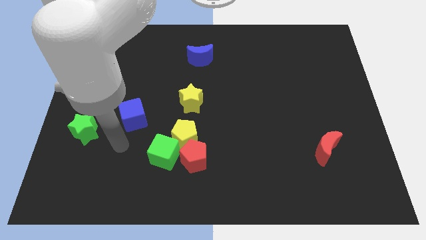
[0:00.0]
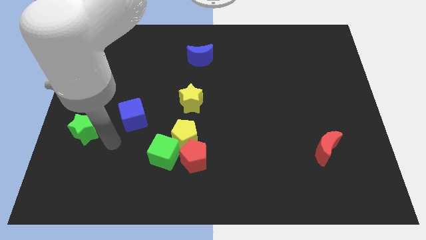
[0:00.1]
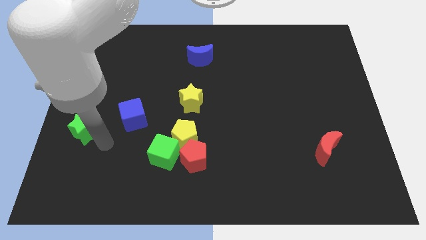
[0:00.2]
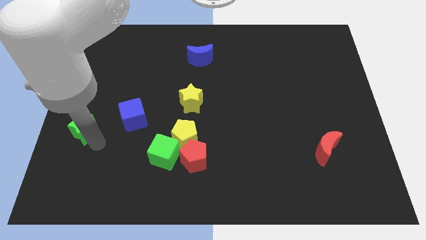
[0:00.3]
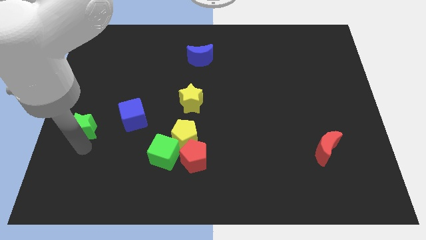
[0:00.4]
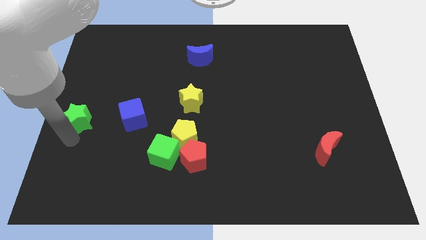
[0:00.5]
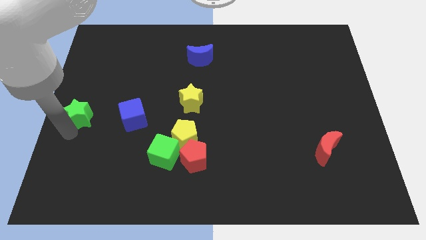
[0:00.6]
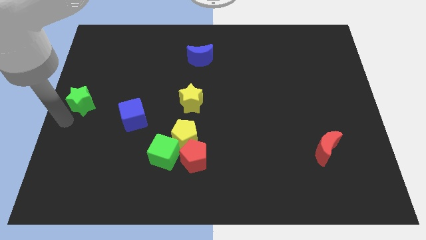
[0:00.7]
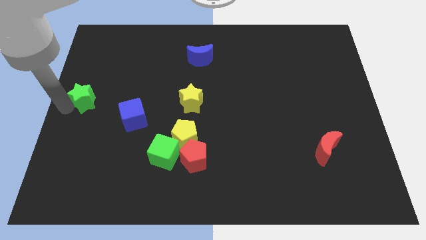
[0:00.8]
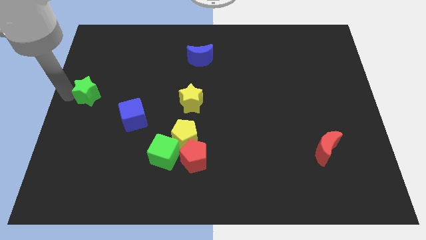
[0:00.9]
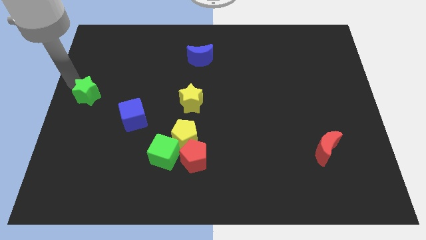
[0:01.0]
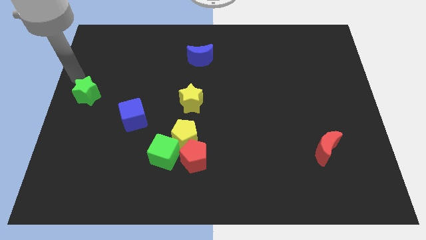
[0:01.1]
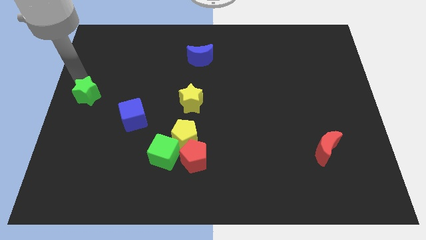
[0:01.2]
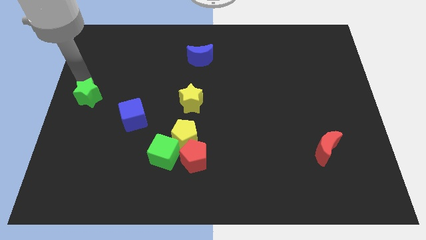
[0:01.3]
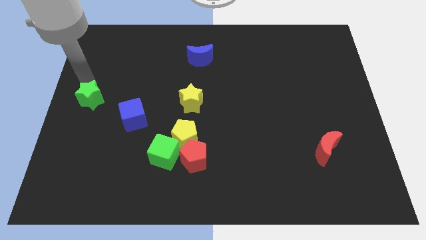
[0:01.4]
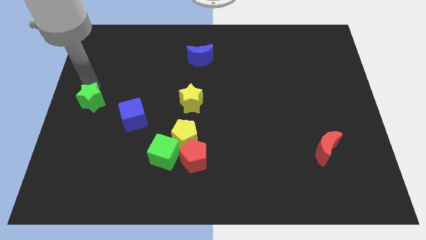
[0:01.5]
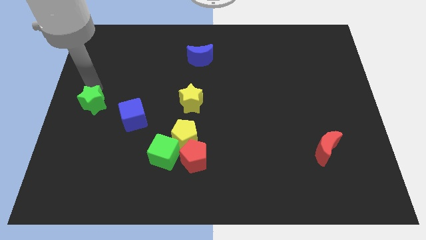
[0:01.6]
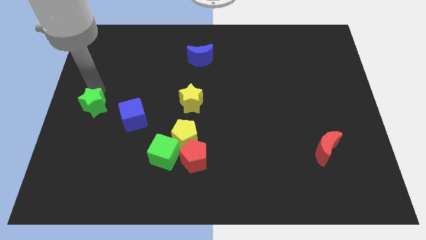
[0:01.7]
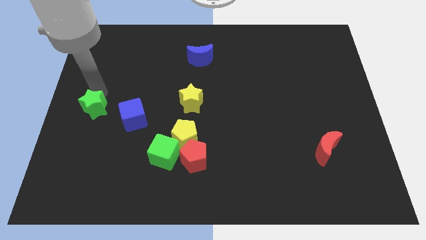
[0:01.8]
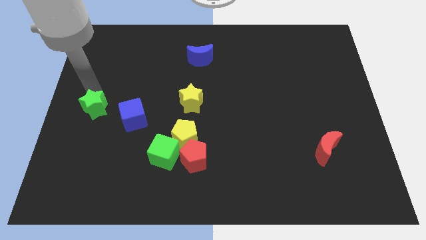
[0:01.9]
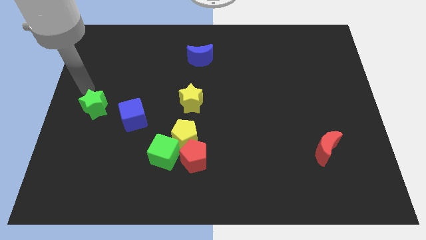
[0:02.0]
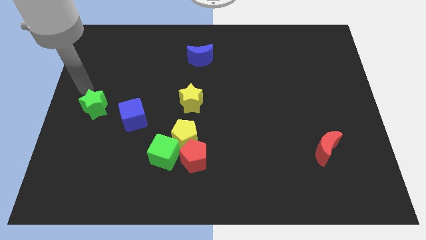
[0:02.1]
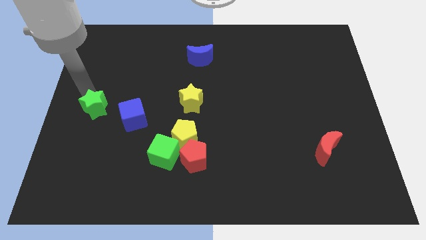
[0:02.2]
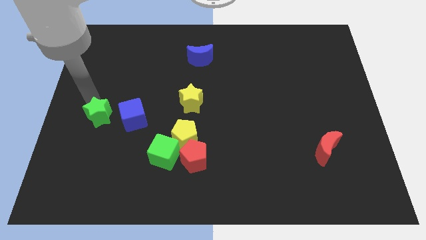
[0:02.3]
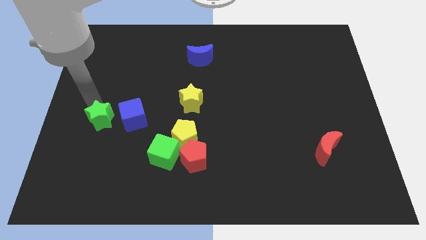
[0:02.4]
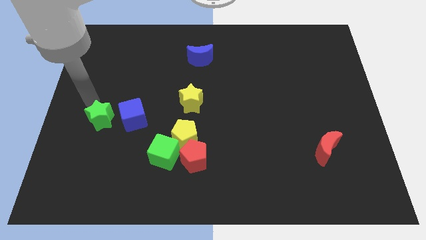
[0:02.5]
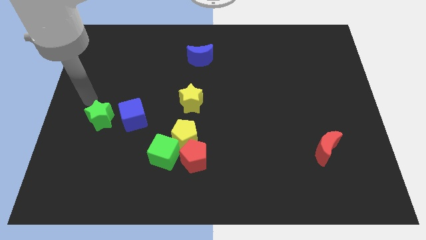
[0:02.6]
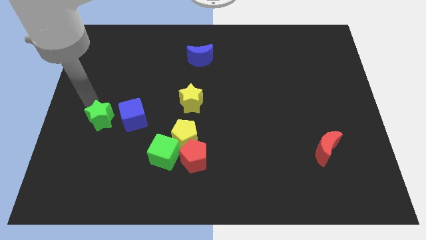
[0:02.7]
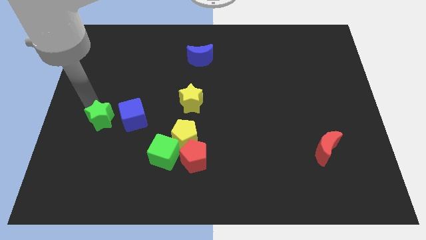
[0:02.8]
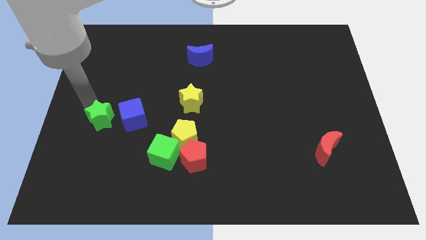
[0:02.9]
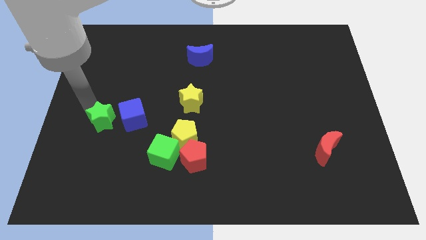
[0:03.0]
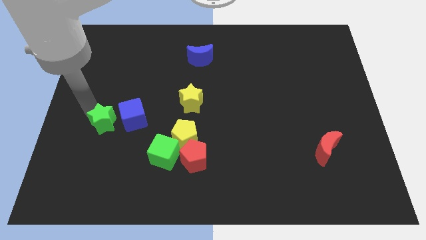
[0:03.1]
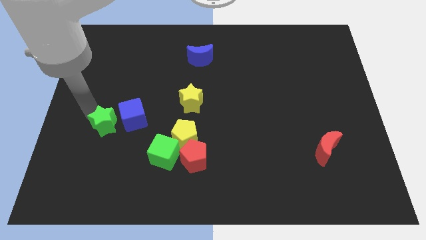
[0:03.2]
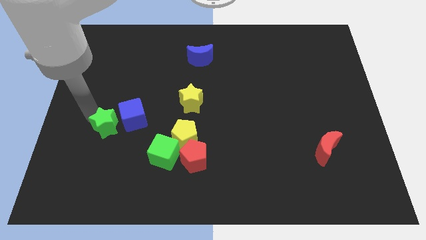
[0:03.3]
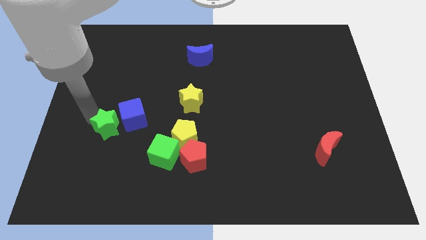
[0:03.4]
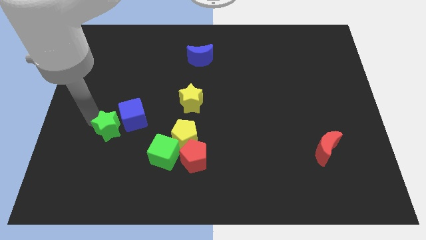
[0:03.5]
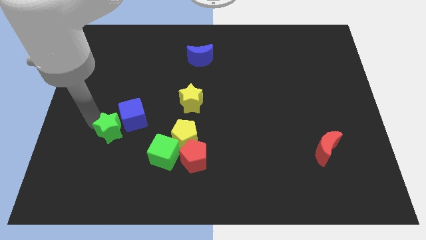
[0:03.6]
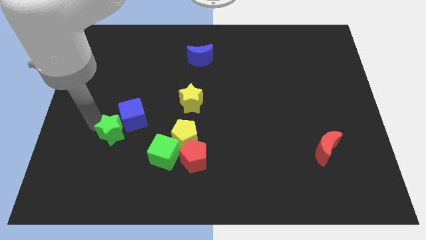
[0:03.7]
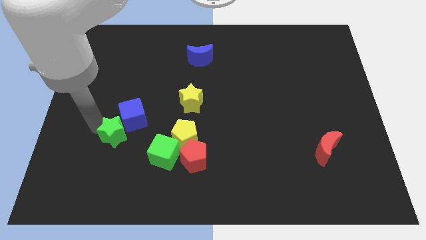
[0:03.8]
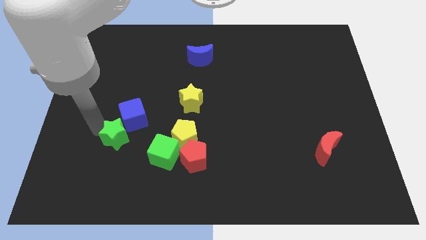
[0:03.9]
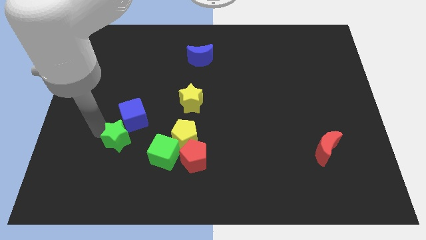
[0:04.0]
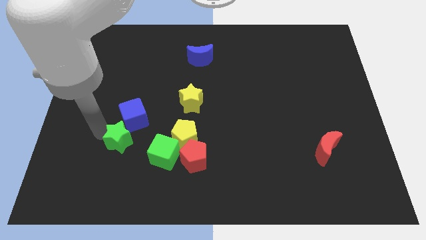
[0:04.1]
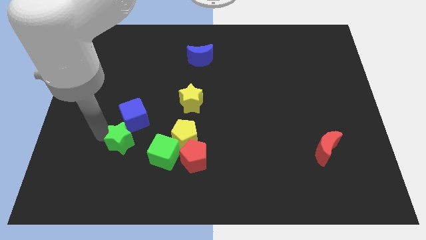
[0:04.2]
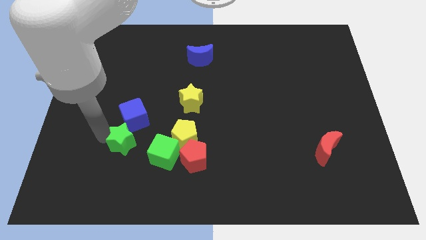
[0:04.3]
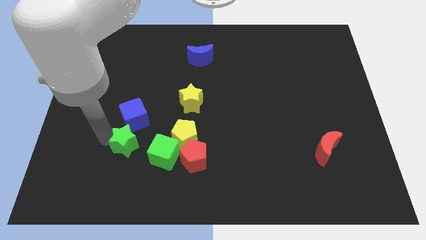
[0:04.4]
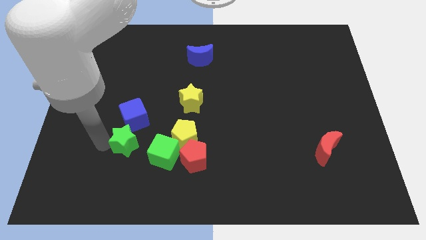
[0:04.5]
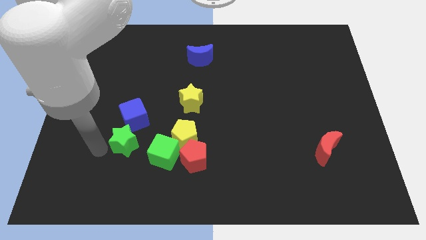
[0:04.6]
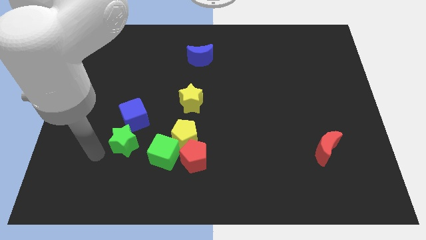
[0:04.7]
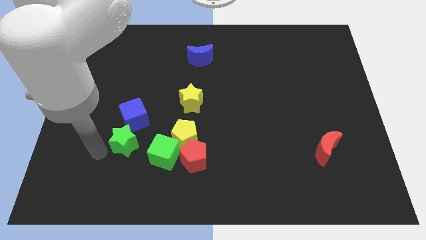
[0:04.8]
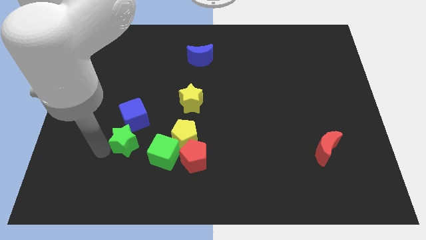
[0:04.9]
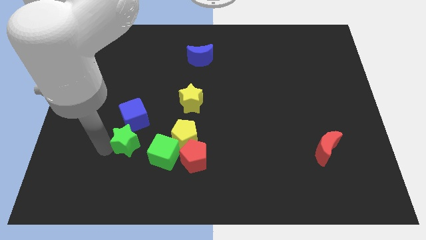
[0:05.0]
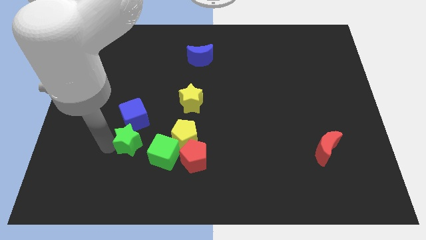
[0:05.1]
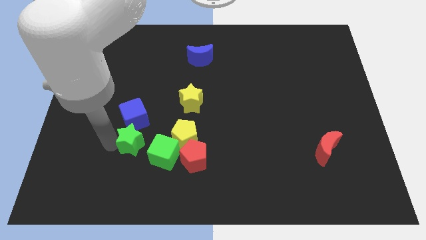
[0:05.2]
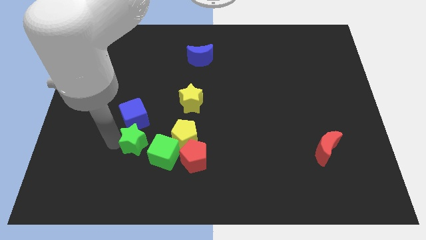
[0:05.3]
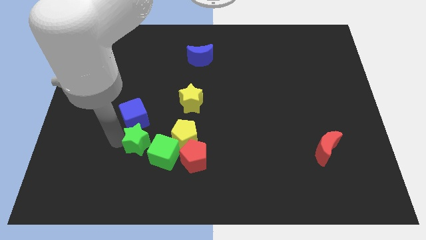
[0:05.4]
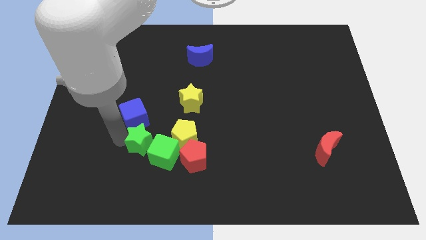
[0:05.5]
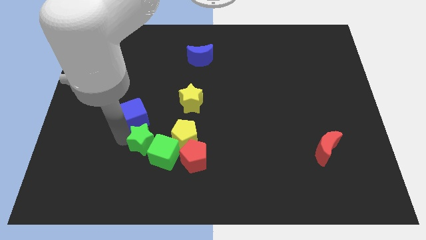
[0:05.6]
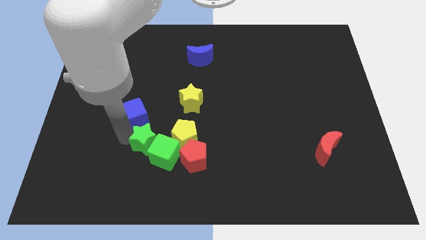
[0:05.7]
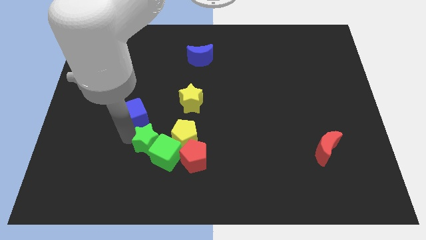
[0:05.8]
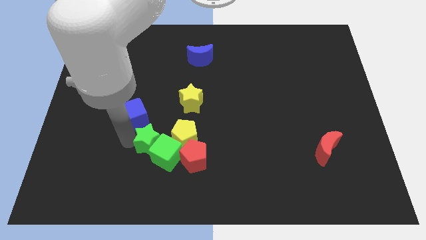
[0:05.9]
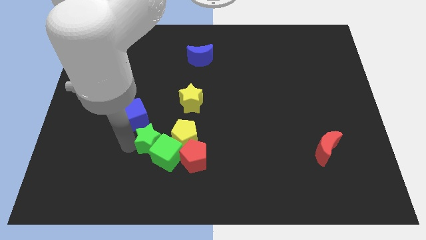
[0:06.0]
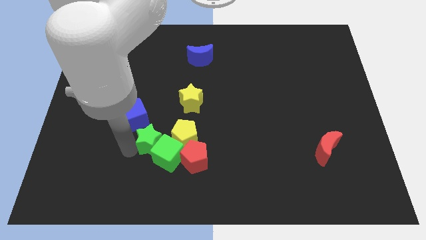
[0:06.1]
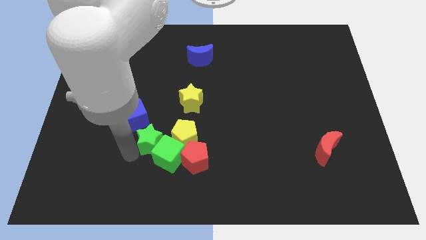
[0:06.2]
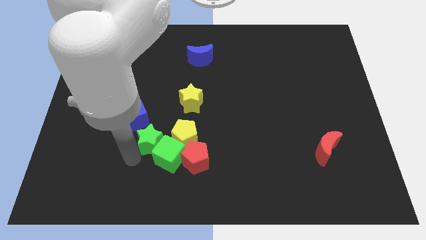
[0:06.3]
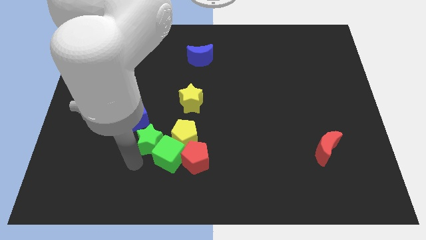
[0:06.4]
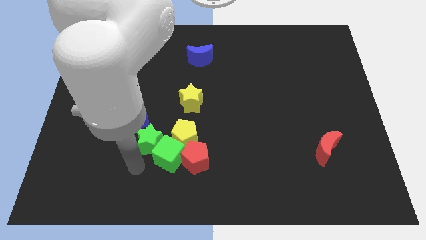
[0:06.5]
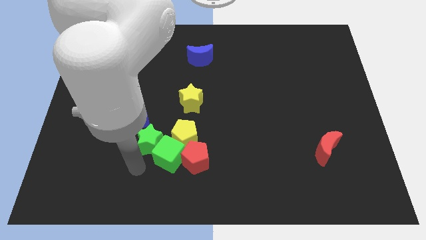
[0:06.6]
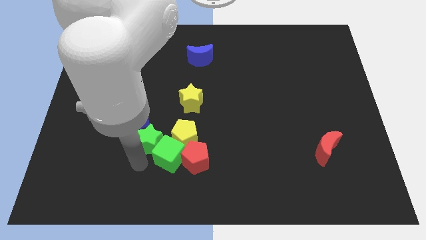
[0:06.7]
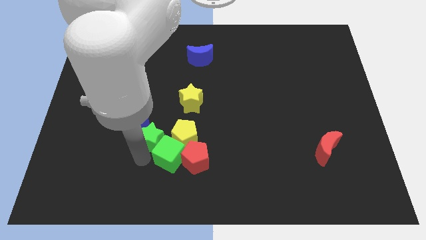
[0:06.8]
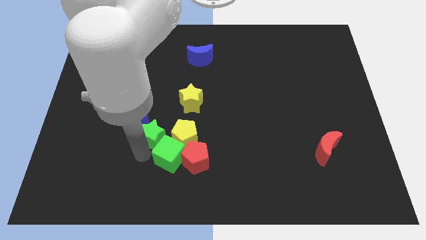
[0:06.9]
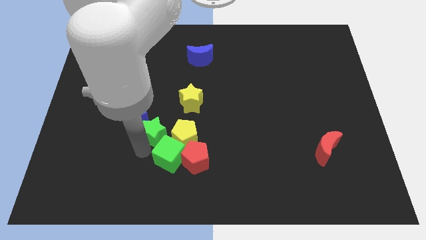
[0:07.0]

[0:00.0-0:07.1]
put the green star to the right side of the blue cube

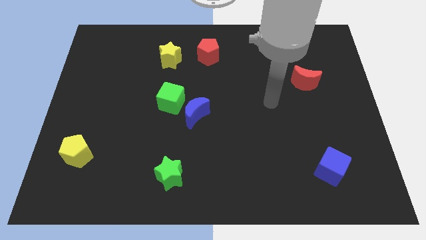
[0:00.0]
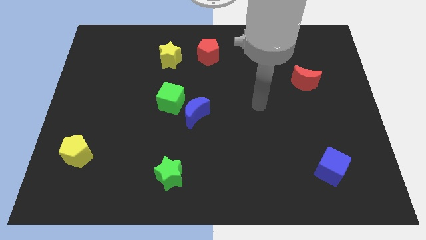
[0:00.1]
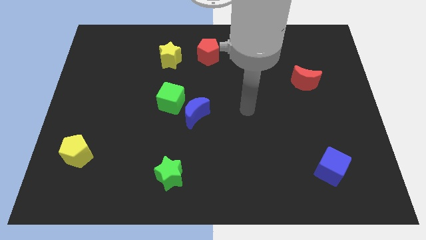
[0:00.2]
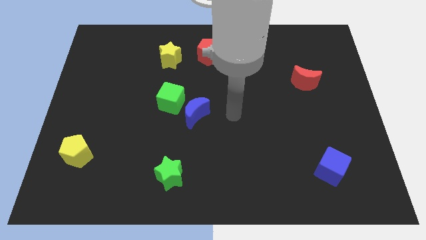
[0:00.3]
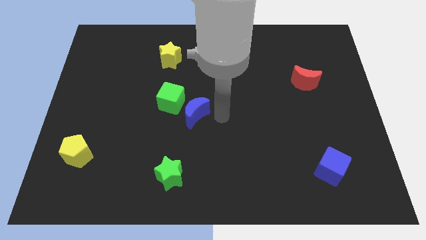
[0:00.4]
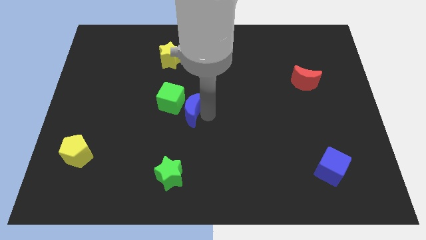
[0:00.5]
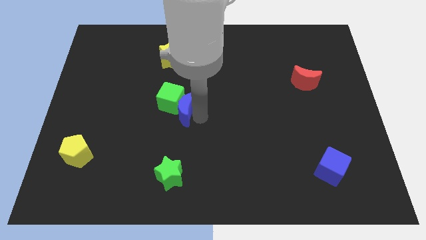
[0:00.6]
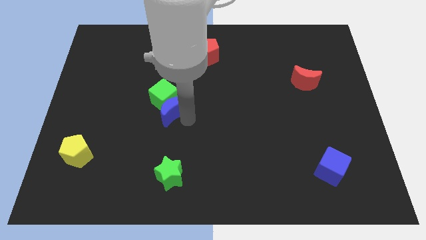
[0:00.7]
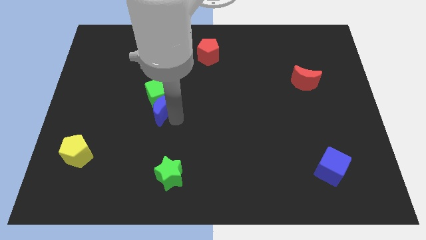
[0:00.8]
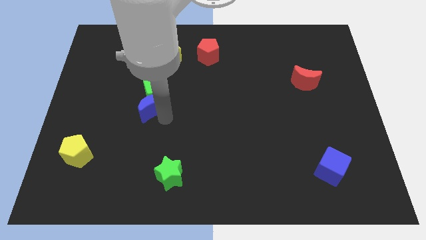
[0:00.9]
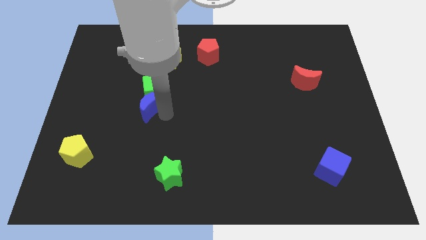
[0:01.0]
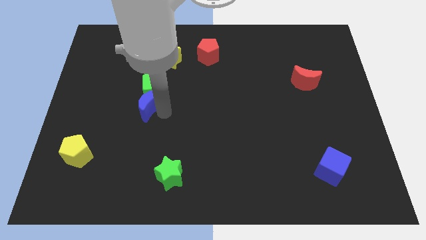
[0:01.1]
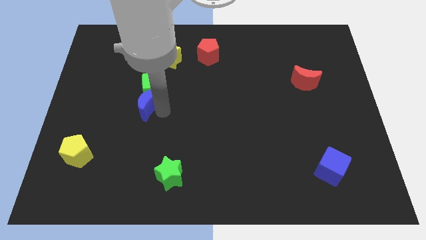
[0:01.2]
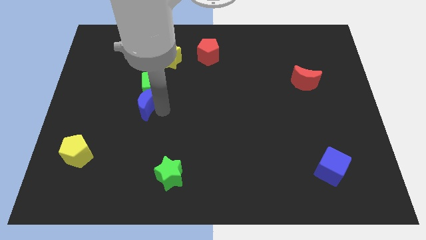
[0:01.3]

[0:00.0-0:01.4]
move the green cube diagonally down and to the left of the yellow star
